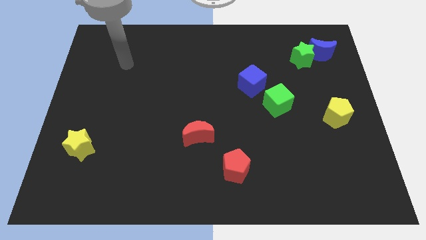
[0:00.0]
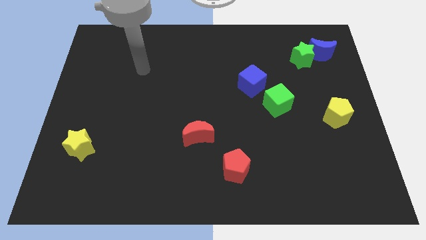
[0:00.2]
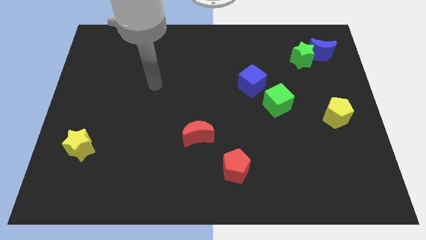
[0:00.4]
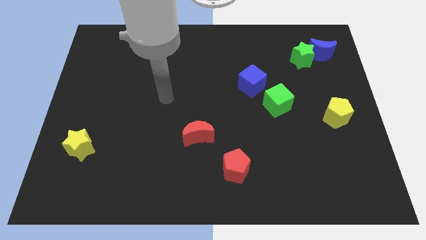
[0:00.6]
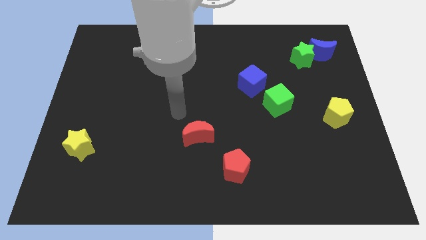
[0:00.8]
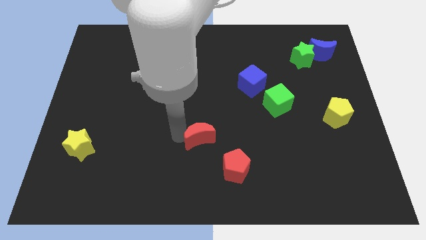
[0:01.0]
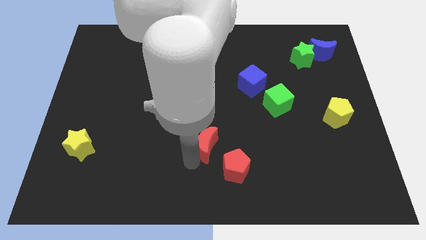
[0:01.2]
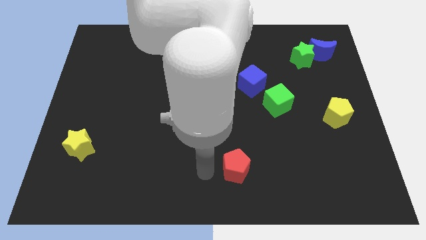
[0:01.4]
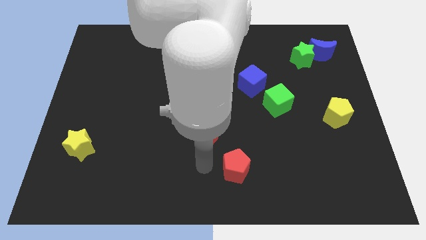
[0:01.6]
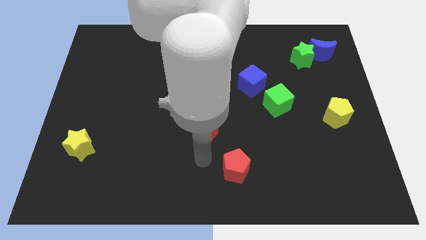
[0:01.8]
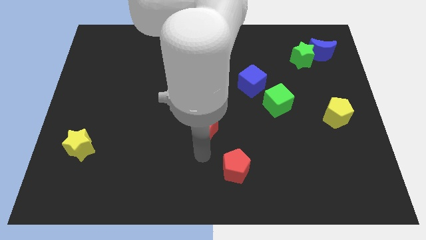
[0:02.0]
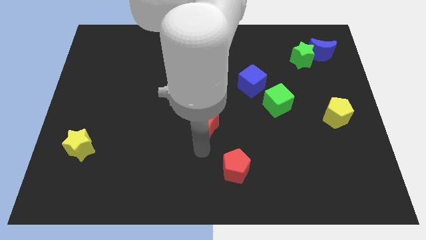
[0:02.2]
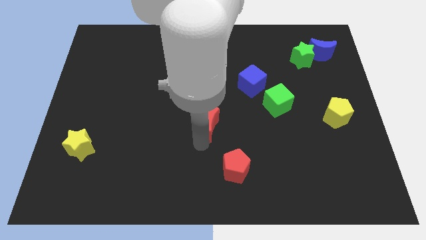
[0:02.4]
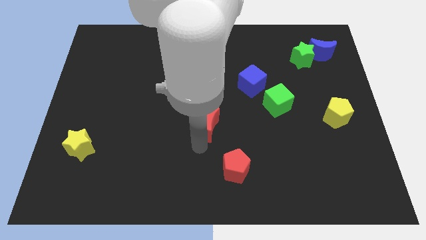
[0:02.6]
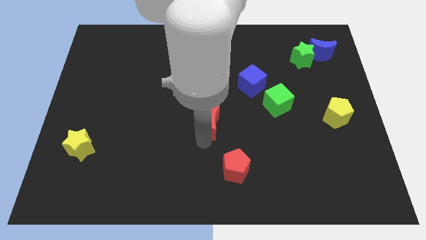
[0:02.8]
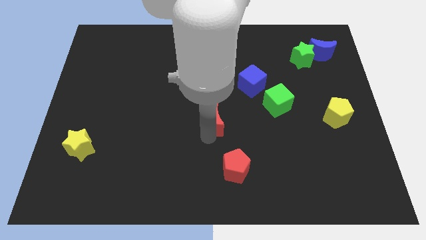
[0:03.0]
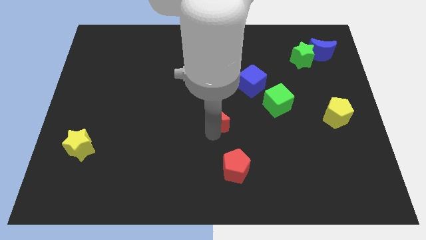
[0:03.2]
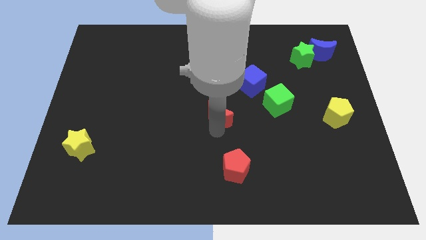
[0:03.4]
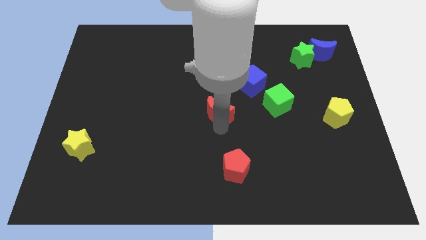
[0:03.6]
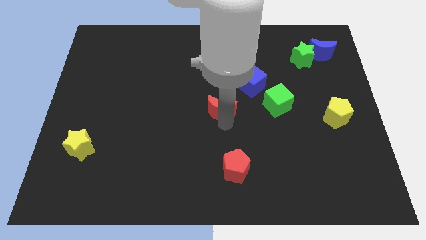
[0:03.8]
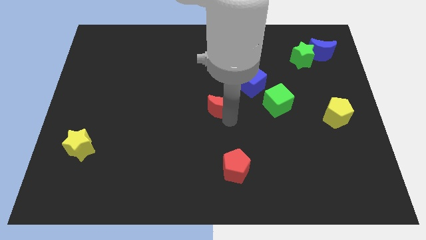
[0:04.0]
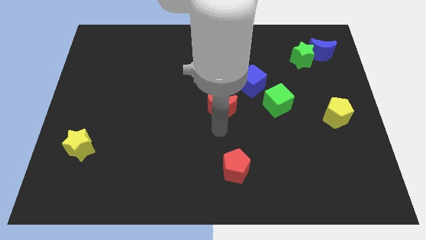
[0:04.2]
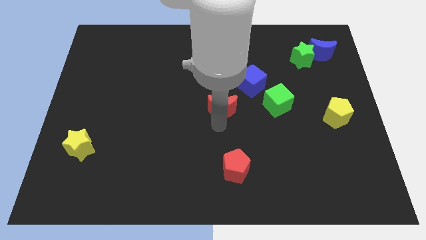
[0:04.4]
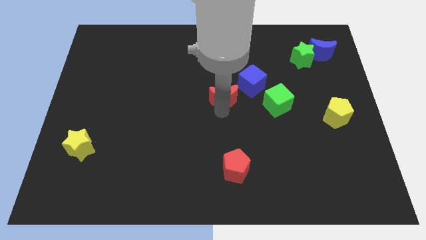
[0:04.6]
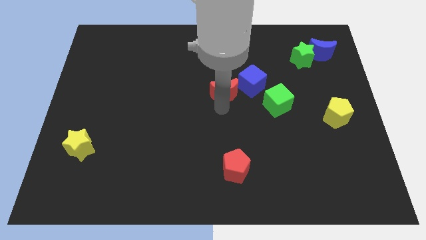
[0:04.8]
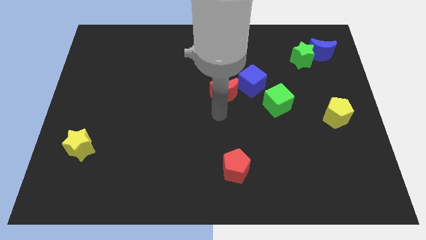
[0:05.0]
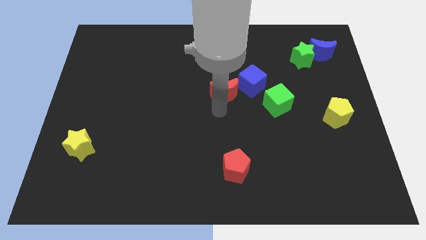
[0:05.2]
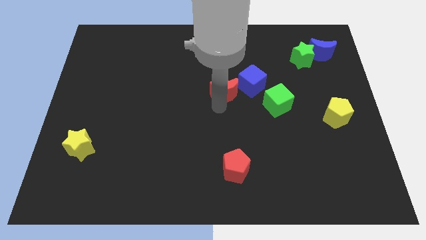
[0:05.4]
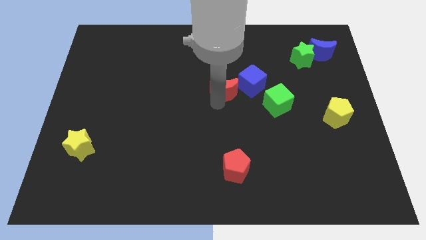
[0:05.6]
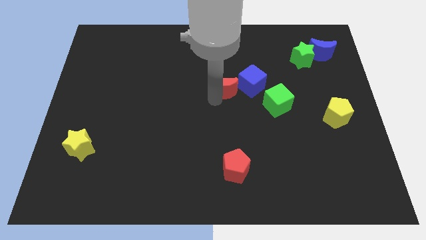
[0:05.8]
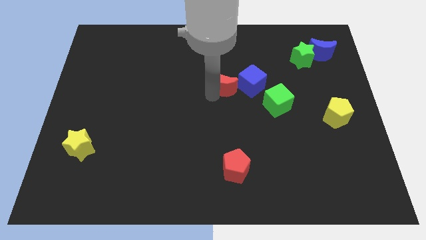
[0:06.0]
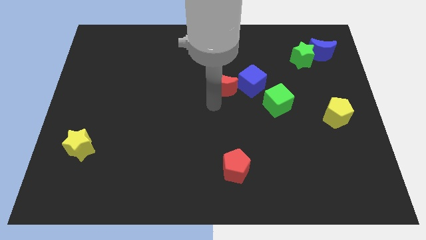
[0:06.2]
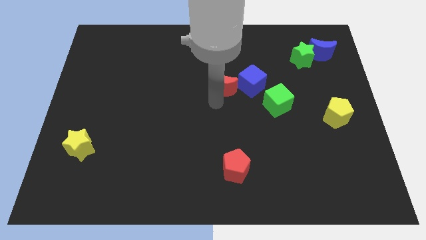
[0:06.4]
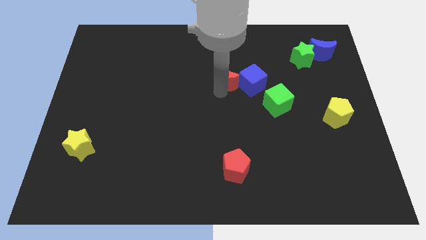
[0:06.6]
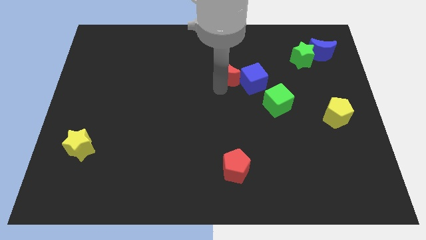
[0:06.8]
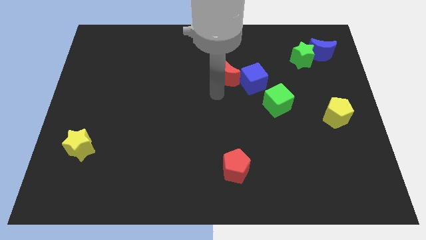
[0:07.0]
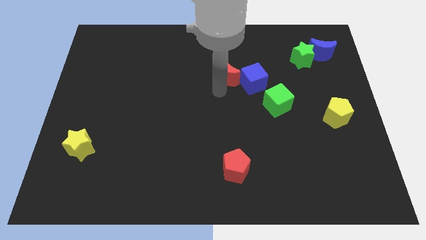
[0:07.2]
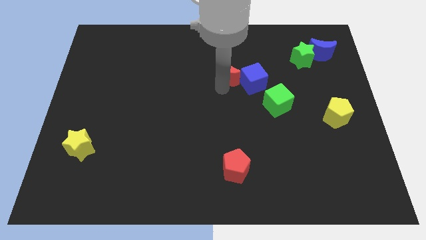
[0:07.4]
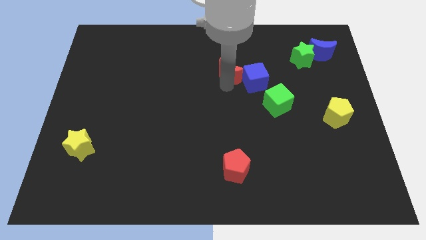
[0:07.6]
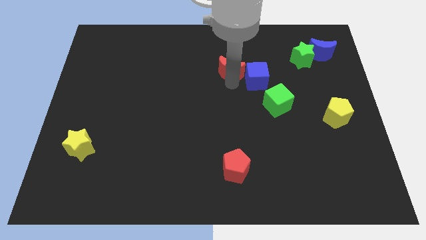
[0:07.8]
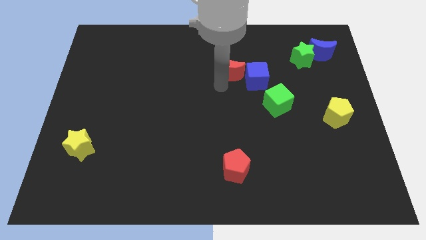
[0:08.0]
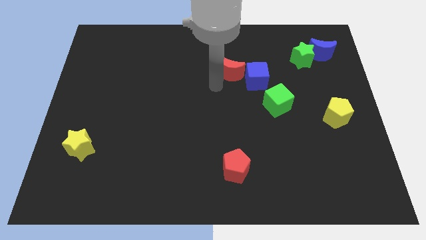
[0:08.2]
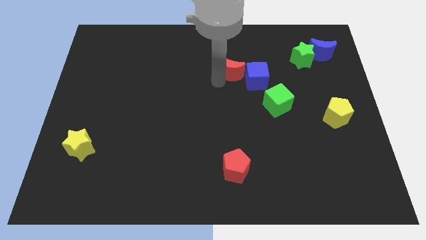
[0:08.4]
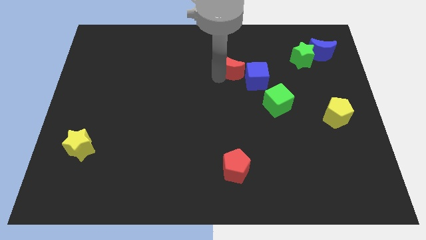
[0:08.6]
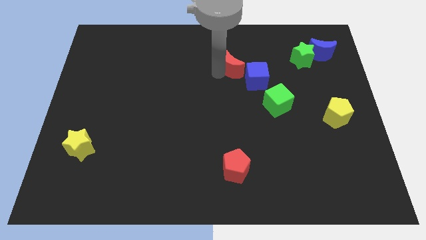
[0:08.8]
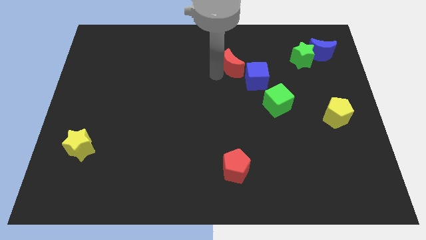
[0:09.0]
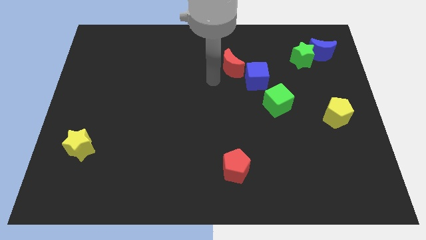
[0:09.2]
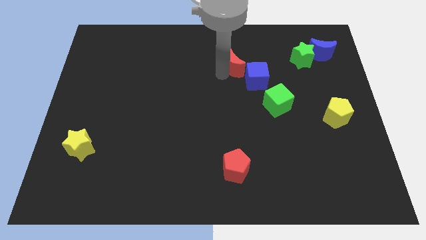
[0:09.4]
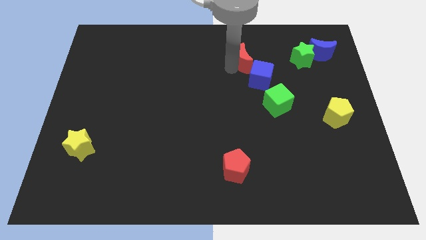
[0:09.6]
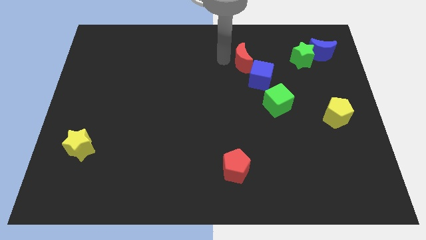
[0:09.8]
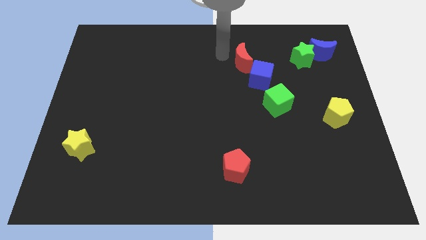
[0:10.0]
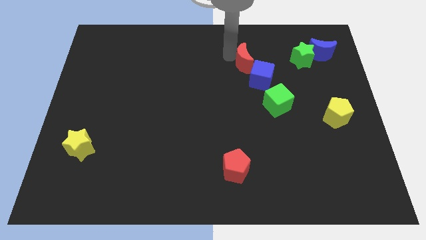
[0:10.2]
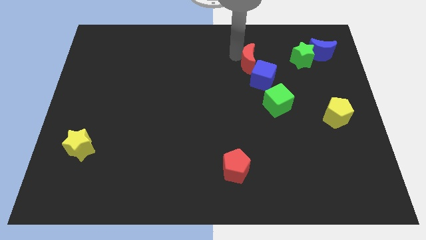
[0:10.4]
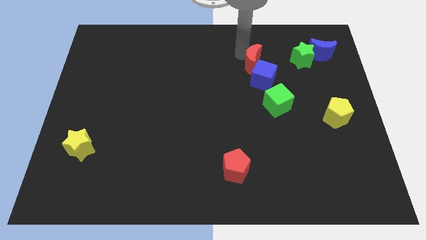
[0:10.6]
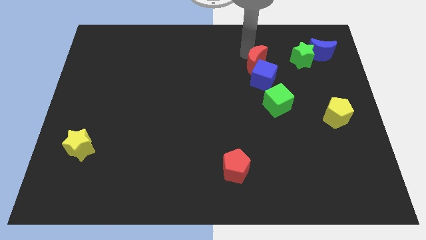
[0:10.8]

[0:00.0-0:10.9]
push the red moon to the top side of the green cube

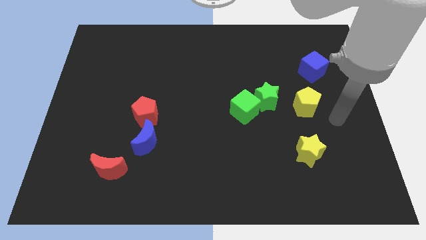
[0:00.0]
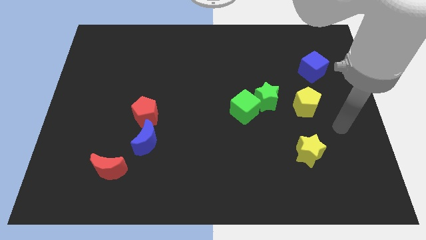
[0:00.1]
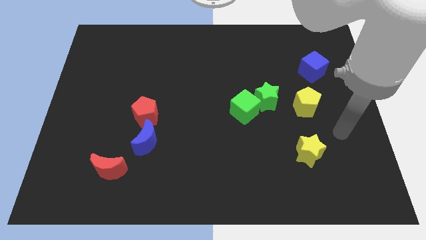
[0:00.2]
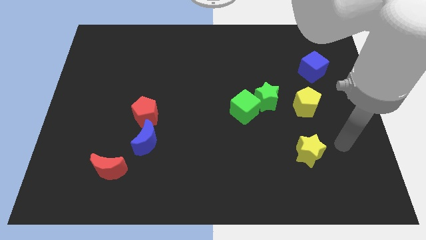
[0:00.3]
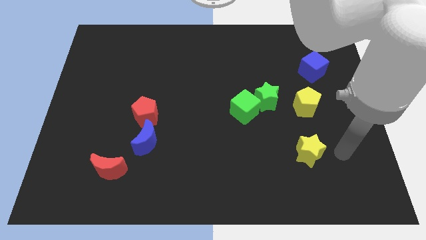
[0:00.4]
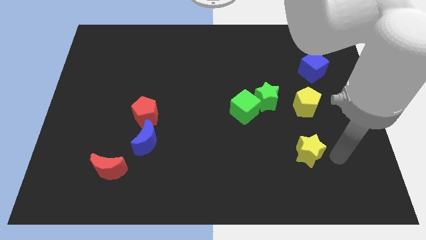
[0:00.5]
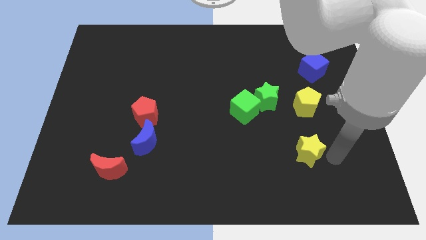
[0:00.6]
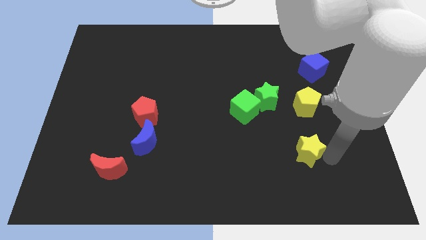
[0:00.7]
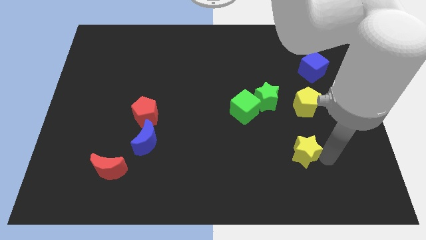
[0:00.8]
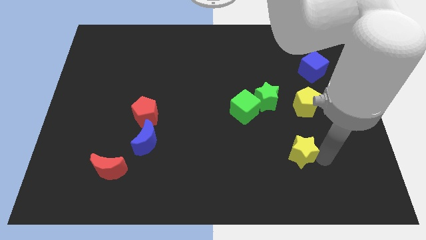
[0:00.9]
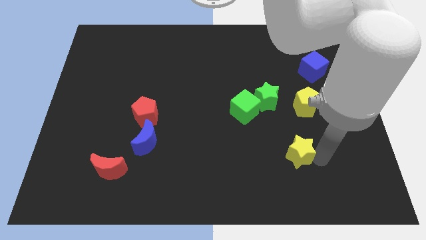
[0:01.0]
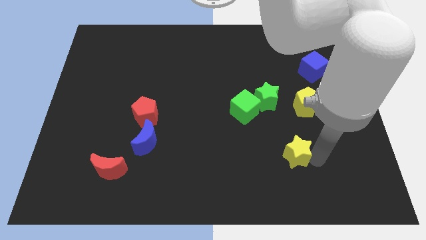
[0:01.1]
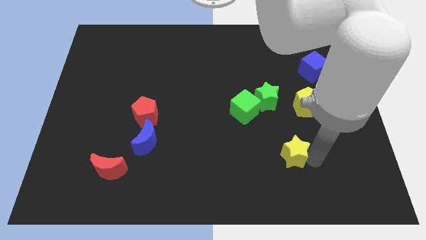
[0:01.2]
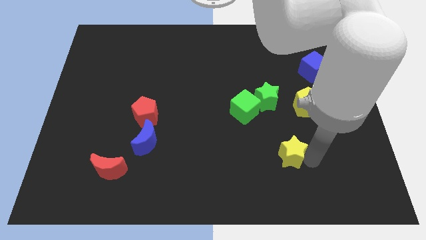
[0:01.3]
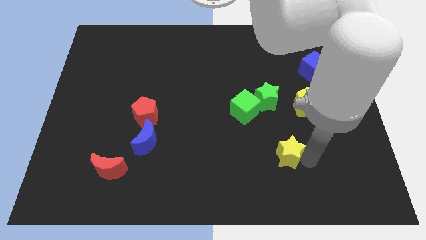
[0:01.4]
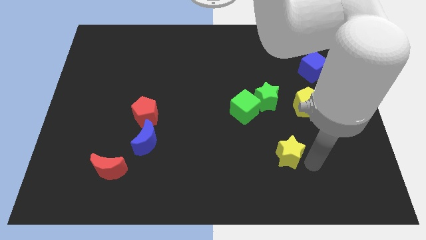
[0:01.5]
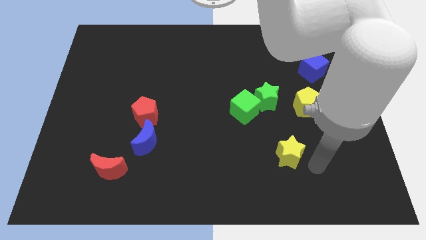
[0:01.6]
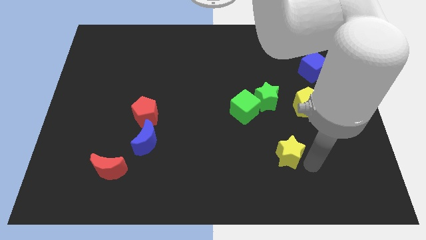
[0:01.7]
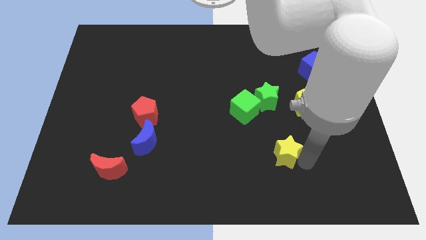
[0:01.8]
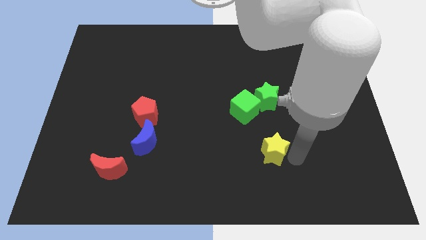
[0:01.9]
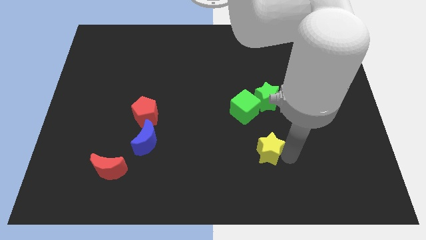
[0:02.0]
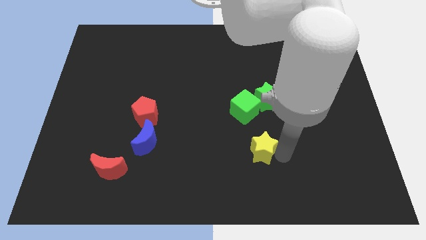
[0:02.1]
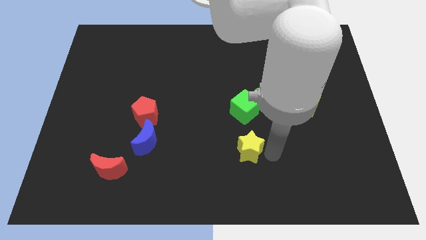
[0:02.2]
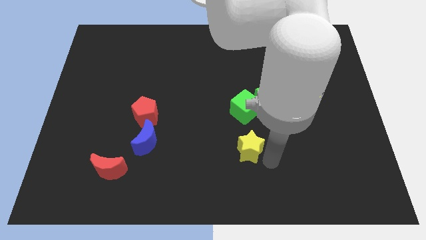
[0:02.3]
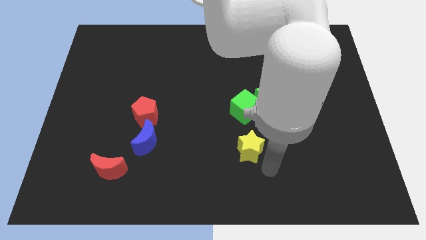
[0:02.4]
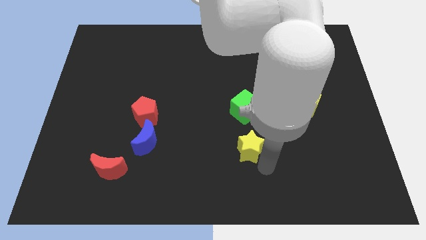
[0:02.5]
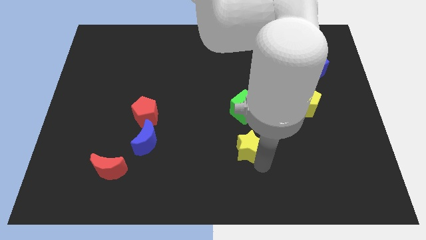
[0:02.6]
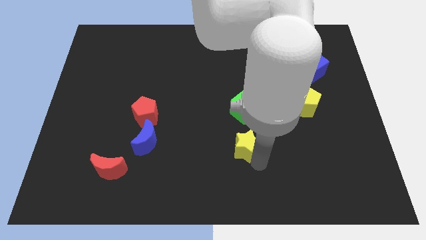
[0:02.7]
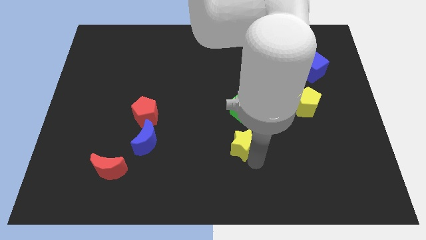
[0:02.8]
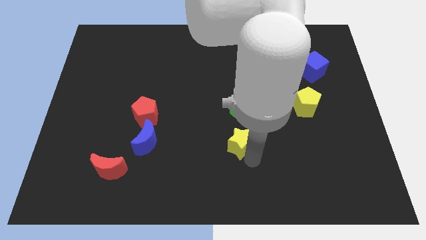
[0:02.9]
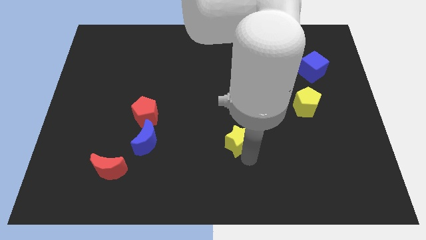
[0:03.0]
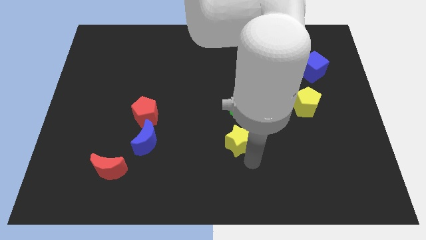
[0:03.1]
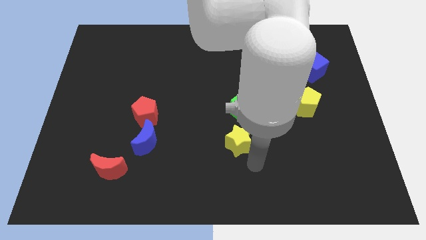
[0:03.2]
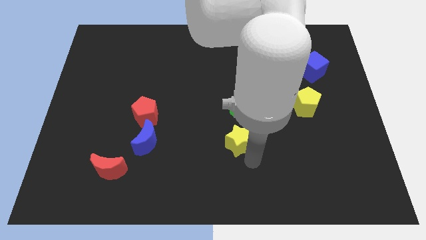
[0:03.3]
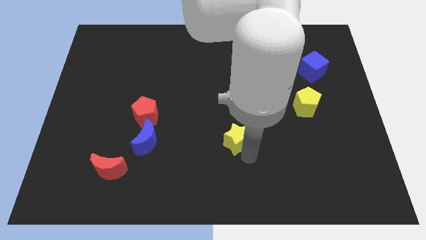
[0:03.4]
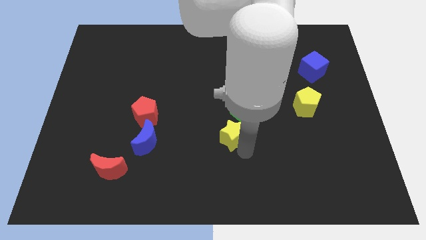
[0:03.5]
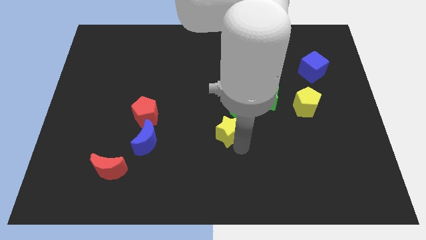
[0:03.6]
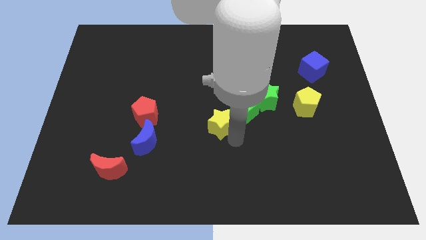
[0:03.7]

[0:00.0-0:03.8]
move the yellow star to the left of the green cube
